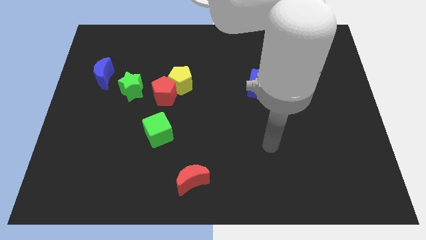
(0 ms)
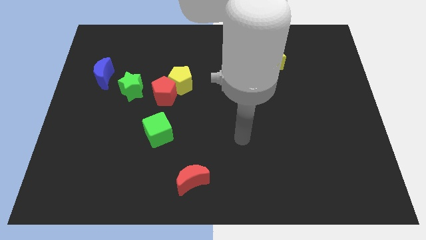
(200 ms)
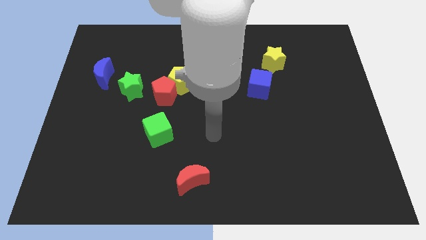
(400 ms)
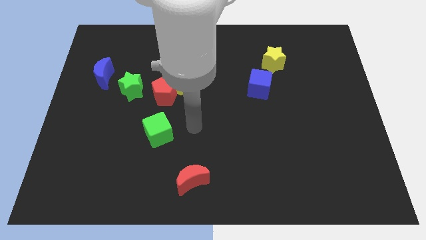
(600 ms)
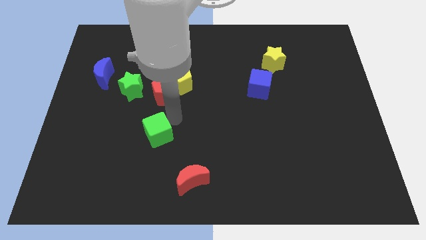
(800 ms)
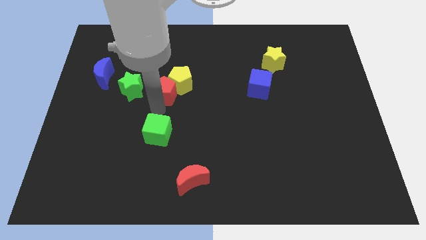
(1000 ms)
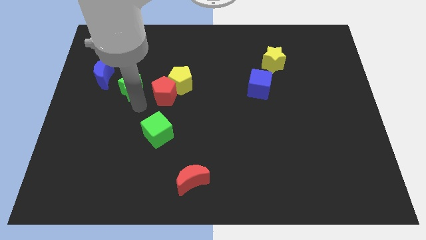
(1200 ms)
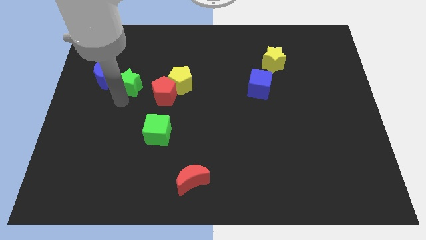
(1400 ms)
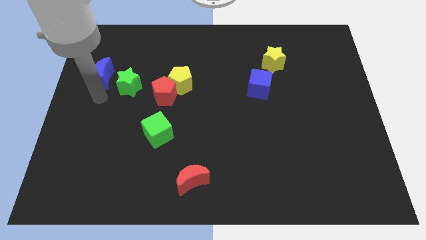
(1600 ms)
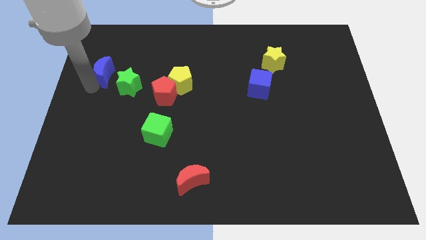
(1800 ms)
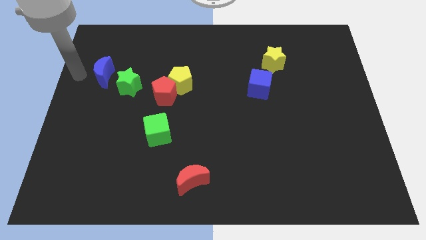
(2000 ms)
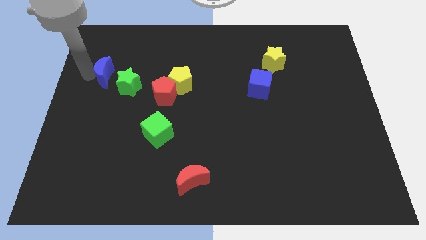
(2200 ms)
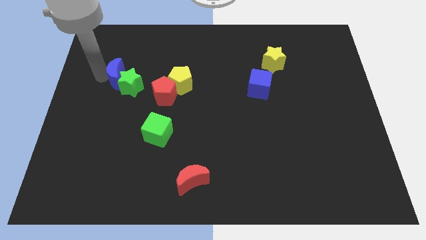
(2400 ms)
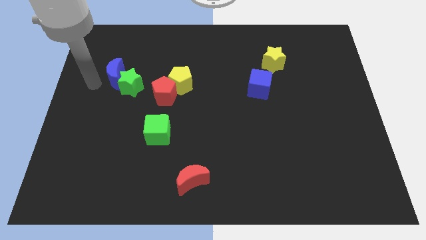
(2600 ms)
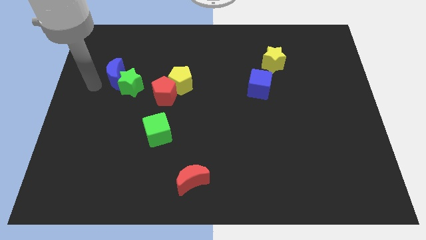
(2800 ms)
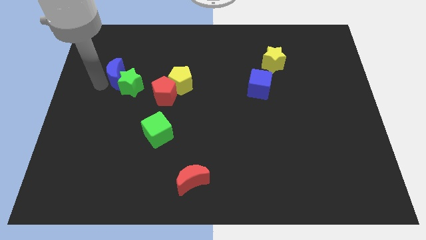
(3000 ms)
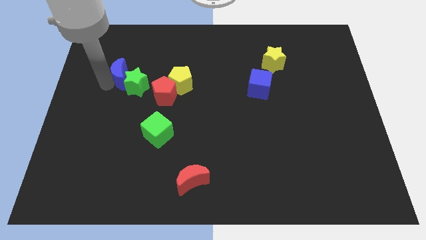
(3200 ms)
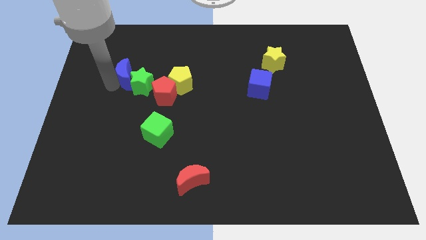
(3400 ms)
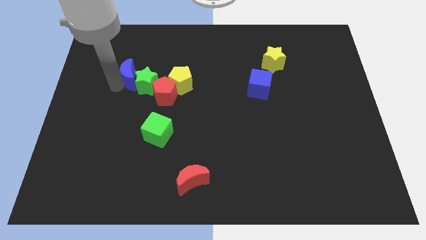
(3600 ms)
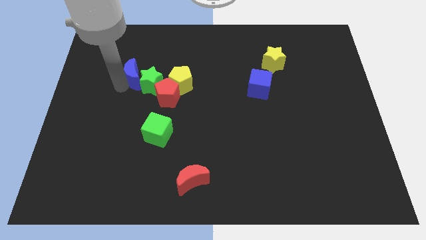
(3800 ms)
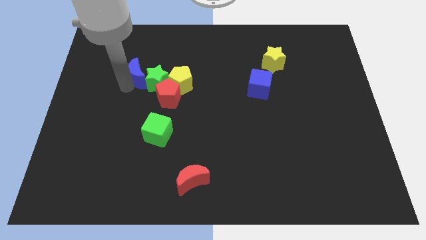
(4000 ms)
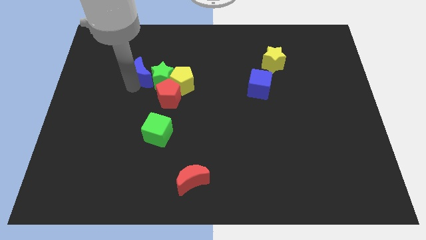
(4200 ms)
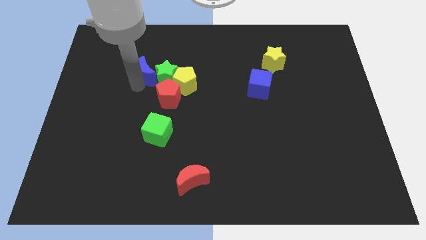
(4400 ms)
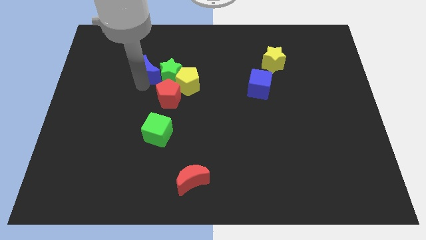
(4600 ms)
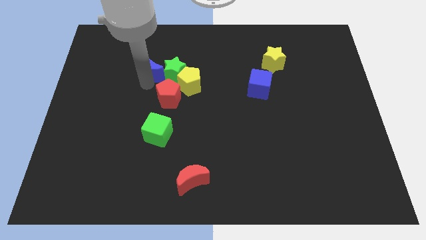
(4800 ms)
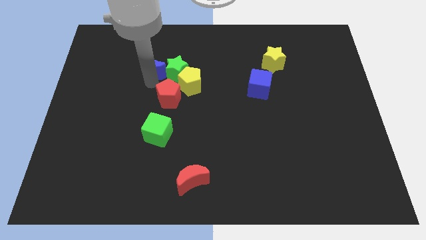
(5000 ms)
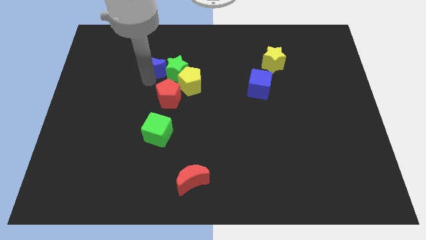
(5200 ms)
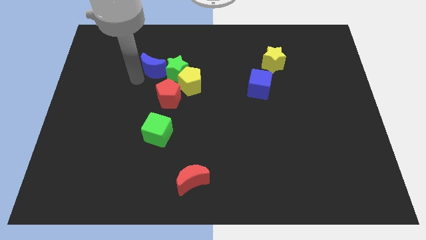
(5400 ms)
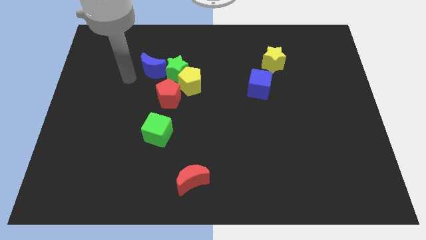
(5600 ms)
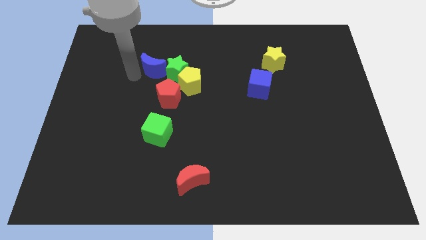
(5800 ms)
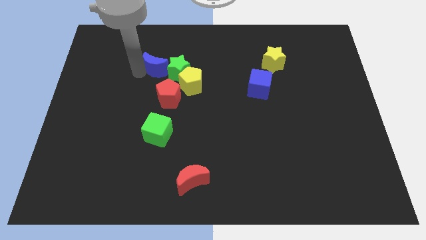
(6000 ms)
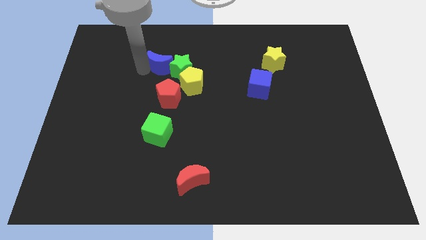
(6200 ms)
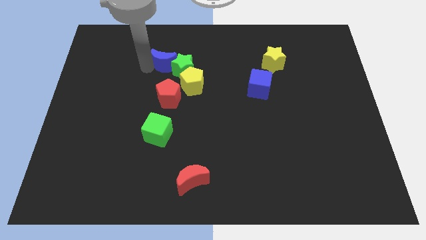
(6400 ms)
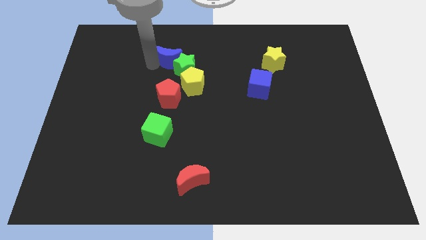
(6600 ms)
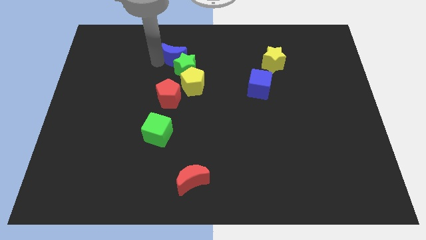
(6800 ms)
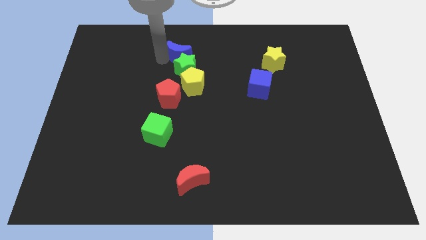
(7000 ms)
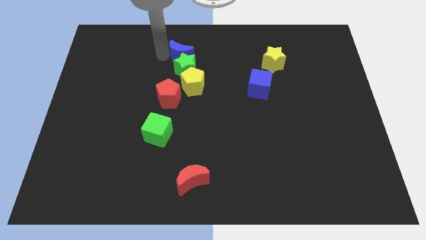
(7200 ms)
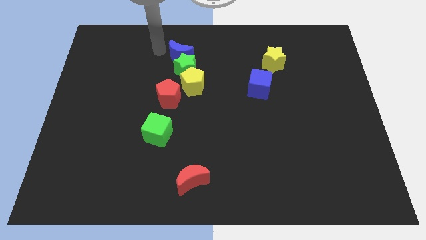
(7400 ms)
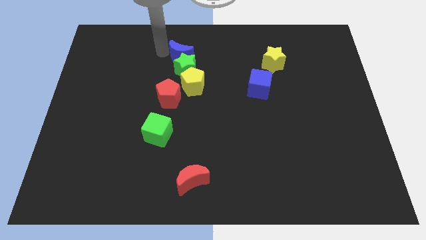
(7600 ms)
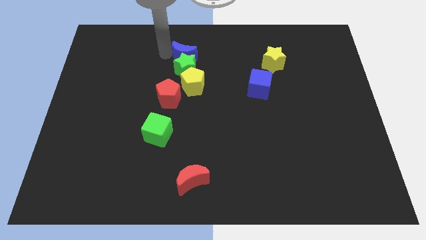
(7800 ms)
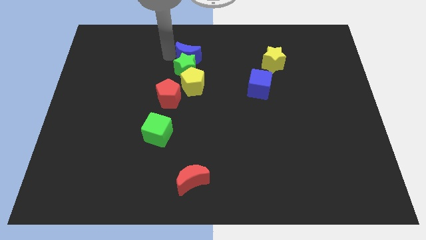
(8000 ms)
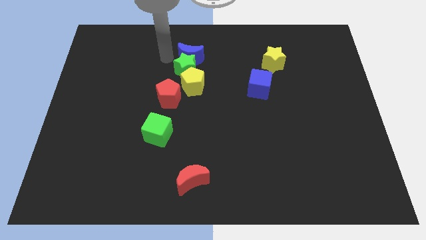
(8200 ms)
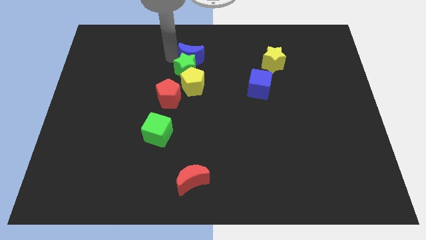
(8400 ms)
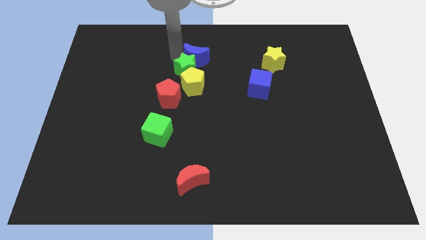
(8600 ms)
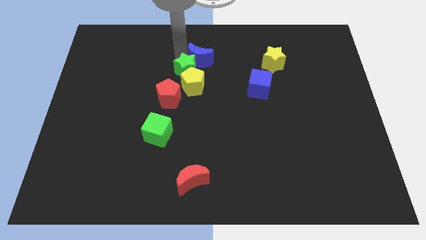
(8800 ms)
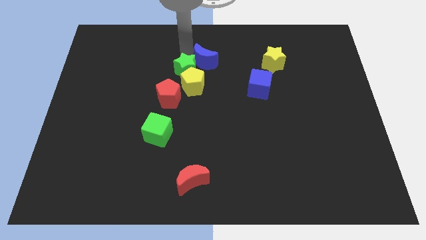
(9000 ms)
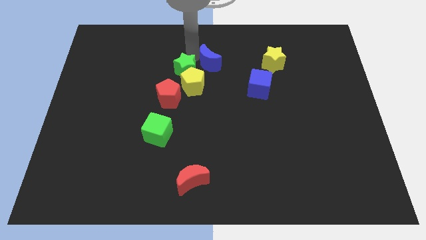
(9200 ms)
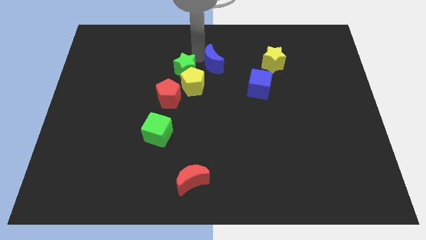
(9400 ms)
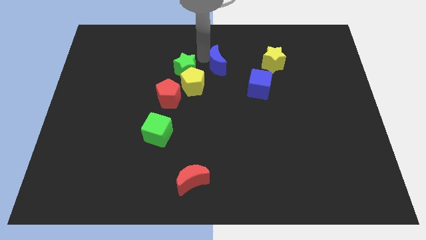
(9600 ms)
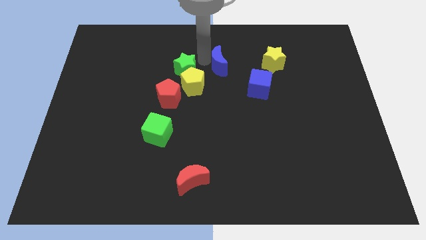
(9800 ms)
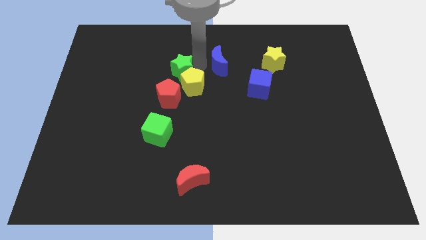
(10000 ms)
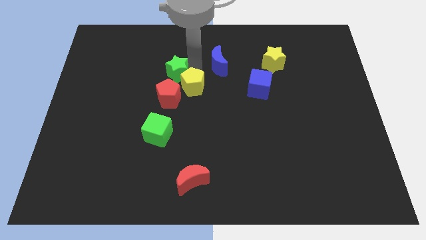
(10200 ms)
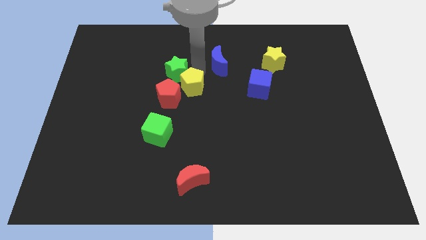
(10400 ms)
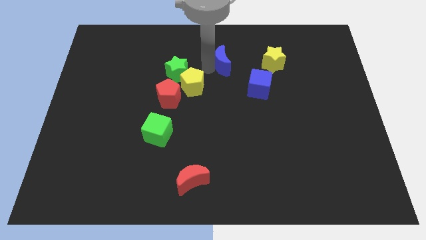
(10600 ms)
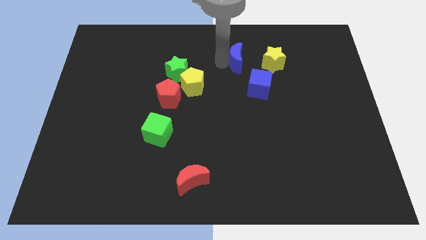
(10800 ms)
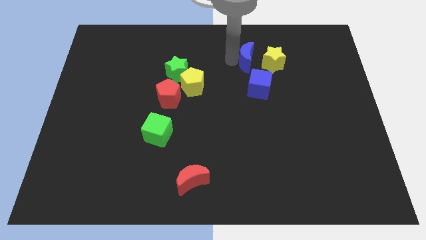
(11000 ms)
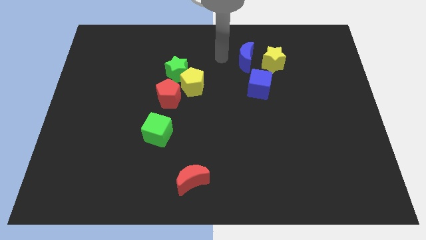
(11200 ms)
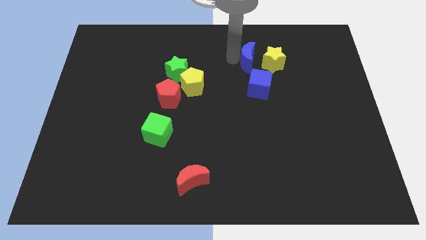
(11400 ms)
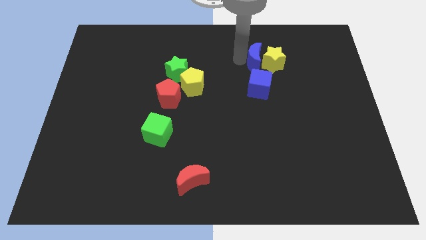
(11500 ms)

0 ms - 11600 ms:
push the blue moon close to the yellow star

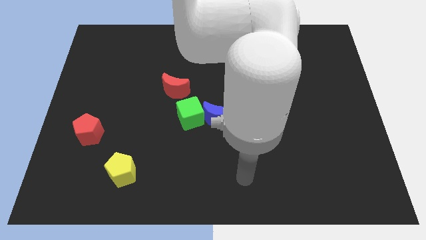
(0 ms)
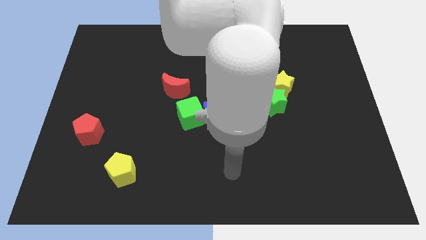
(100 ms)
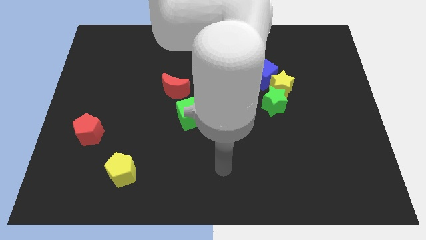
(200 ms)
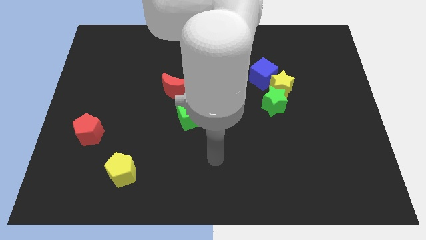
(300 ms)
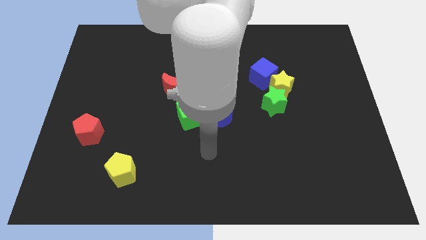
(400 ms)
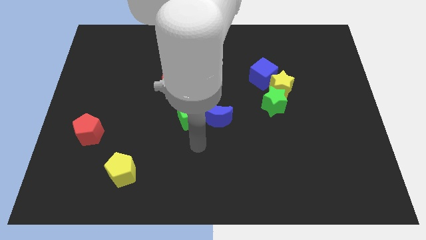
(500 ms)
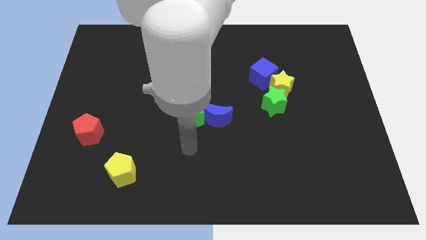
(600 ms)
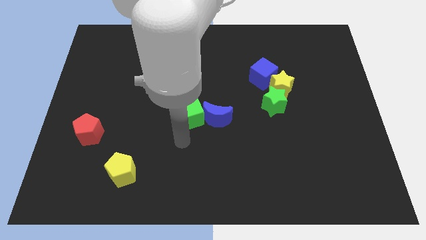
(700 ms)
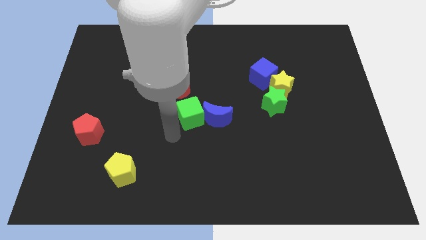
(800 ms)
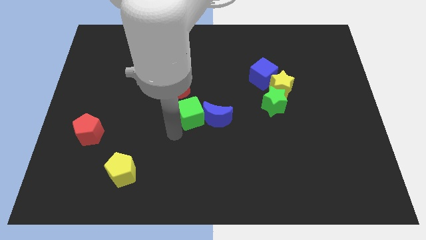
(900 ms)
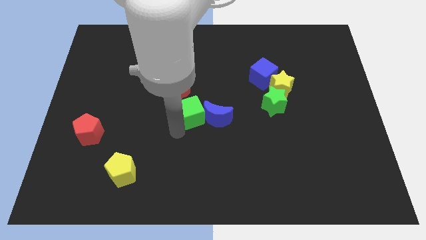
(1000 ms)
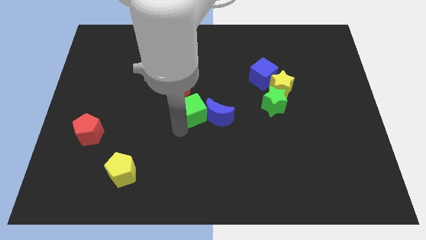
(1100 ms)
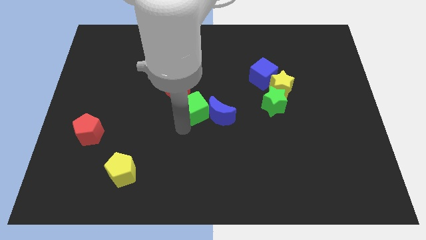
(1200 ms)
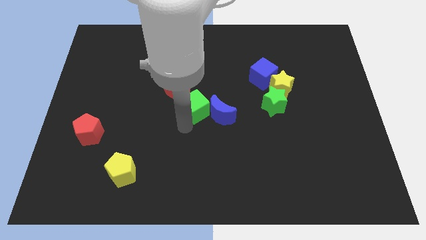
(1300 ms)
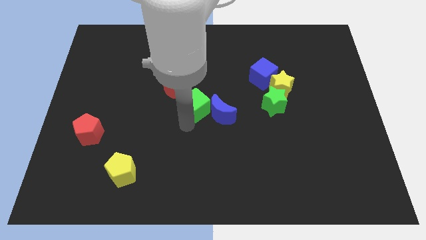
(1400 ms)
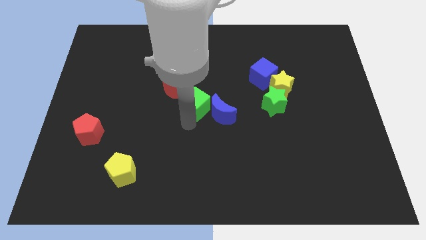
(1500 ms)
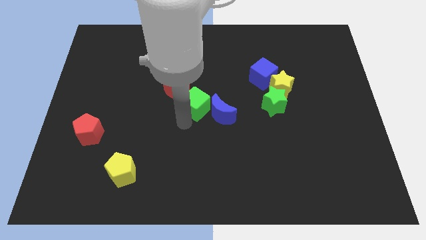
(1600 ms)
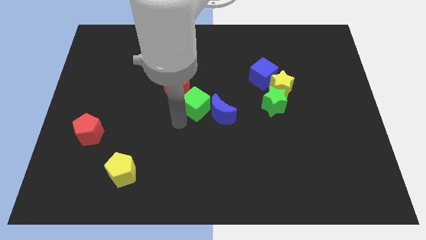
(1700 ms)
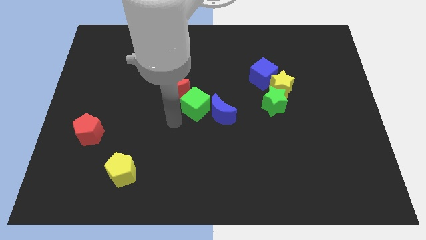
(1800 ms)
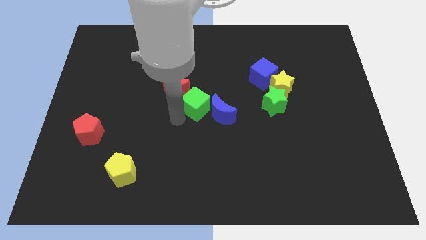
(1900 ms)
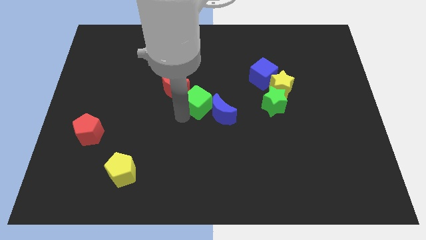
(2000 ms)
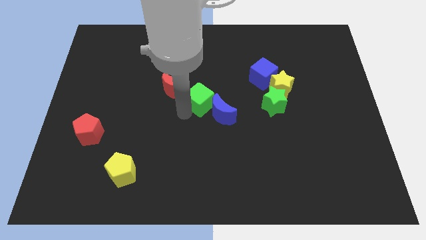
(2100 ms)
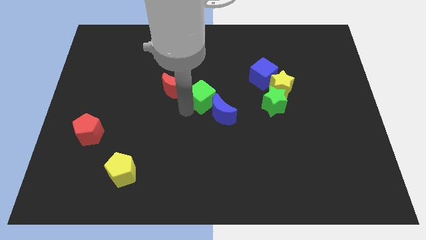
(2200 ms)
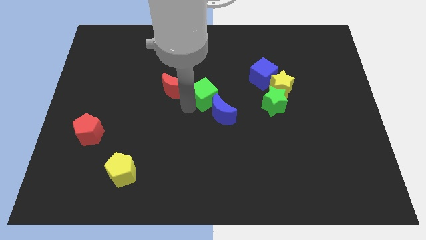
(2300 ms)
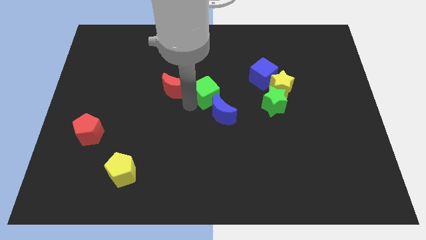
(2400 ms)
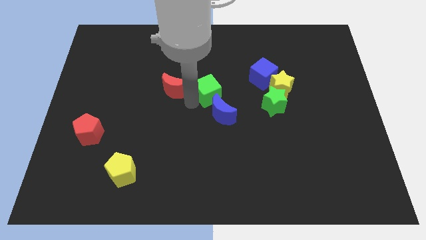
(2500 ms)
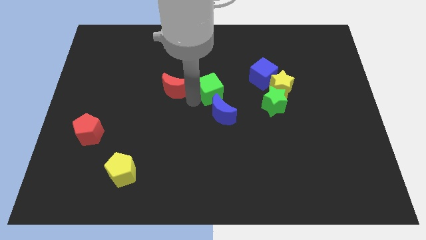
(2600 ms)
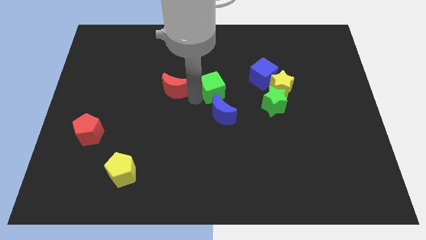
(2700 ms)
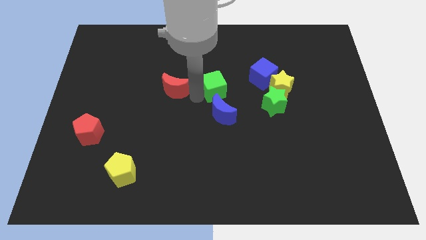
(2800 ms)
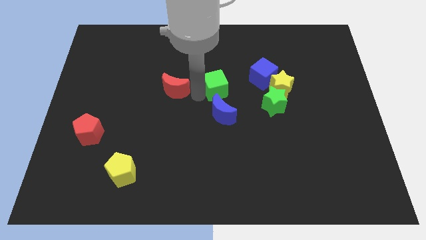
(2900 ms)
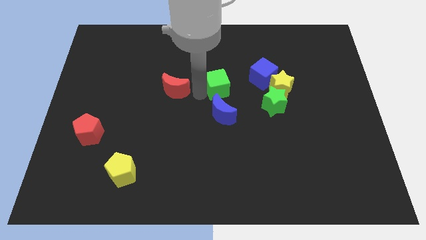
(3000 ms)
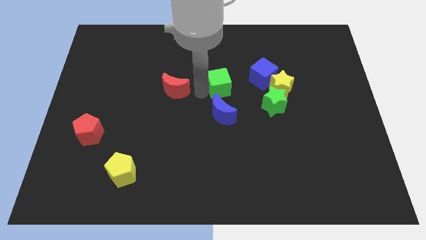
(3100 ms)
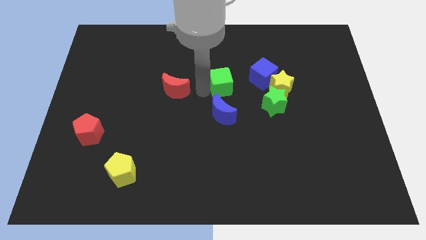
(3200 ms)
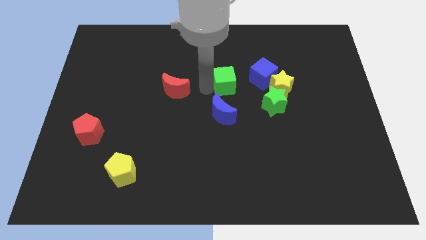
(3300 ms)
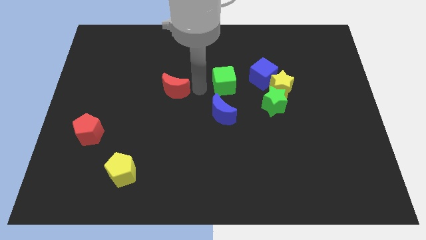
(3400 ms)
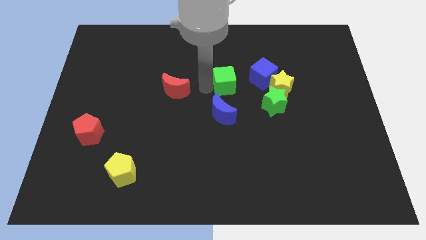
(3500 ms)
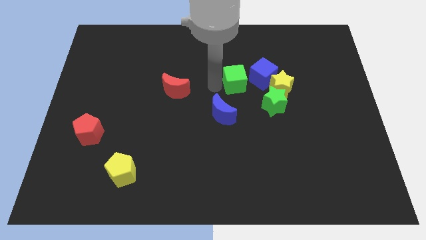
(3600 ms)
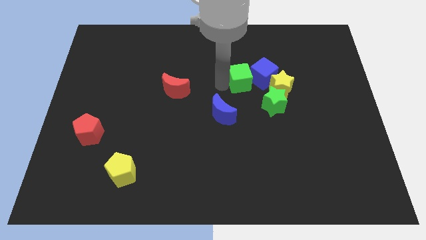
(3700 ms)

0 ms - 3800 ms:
move the green cube towards the blue cube
